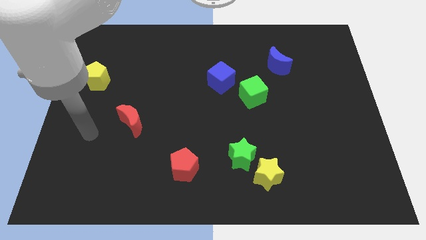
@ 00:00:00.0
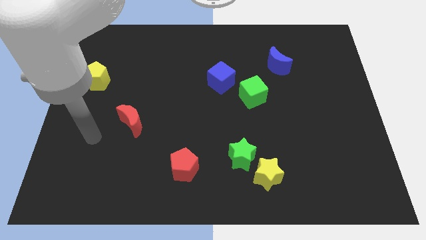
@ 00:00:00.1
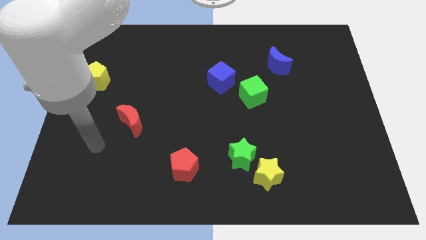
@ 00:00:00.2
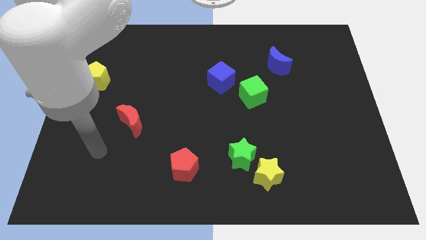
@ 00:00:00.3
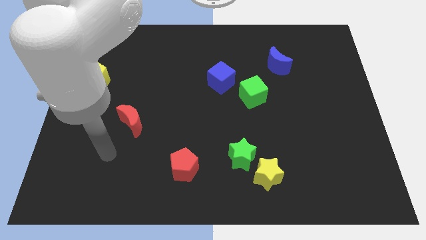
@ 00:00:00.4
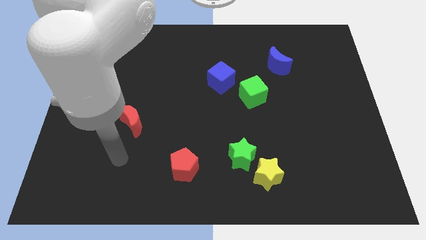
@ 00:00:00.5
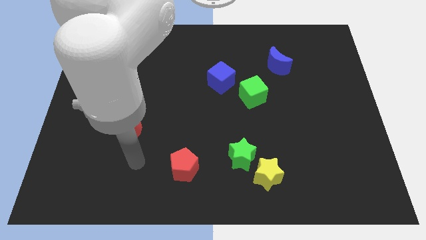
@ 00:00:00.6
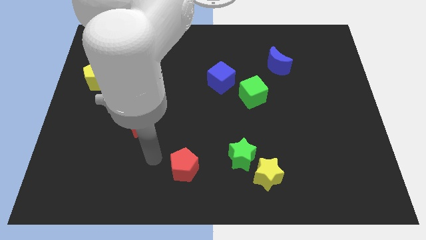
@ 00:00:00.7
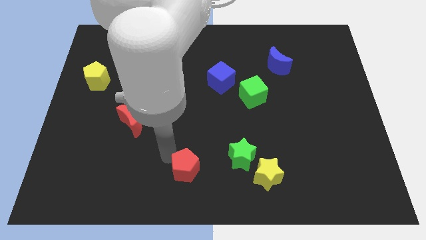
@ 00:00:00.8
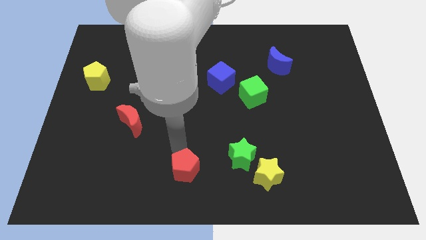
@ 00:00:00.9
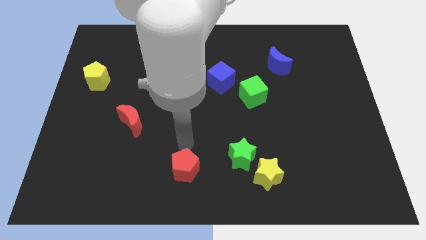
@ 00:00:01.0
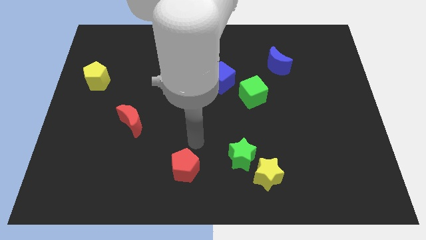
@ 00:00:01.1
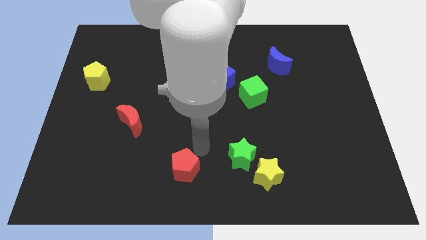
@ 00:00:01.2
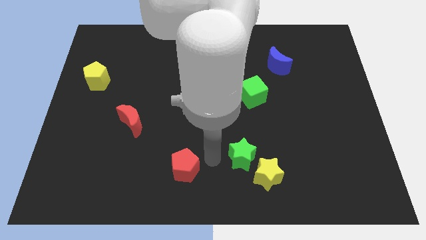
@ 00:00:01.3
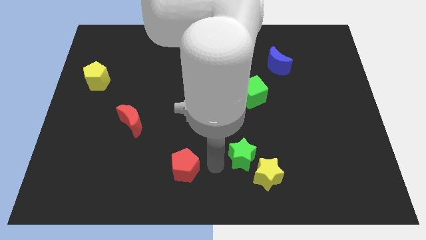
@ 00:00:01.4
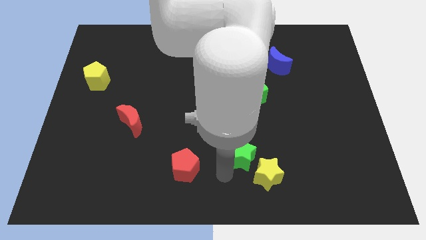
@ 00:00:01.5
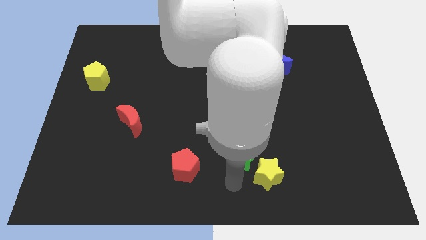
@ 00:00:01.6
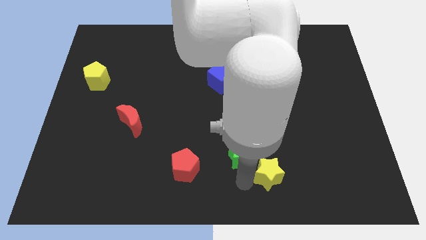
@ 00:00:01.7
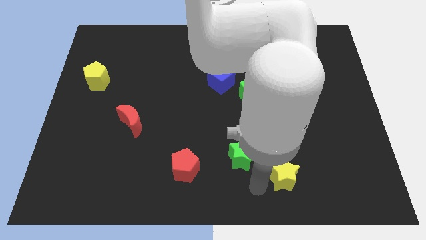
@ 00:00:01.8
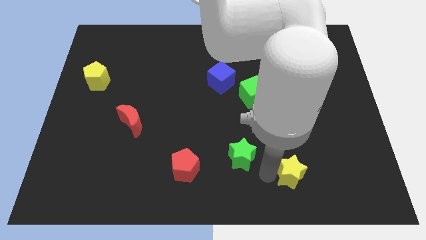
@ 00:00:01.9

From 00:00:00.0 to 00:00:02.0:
separate the green star from the yellow star

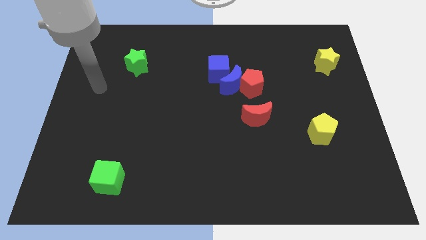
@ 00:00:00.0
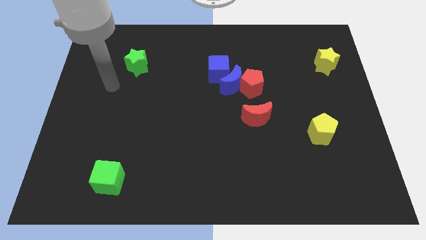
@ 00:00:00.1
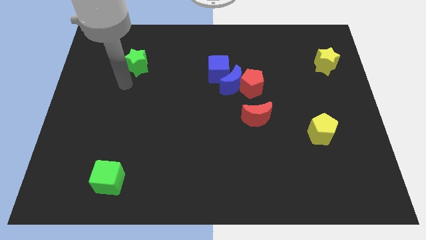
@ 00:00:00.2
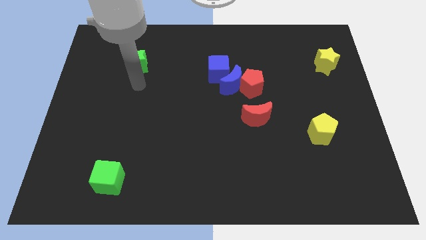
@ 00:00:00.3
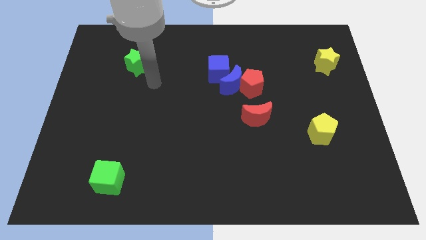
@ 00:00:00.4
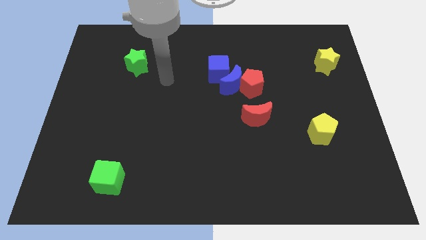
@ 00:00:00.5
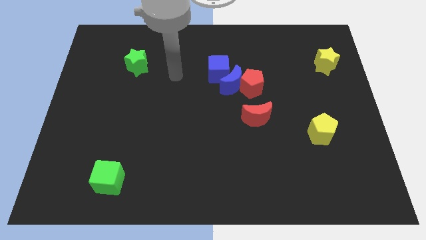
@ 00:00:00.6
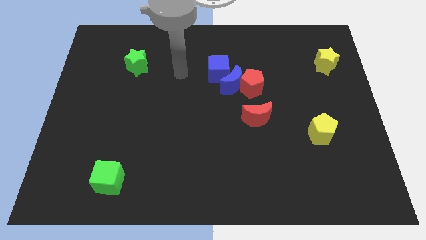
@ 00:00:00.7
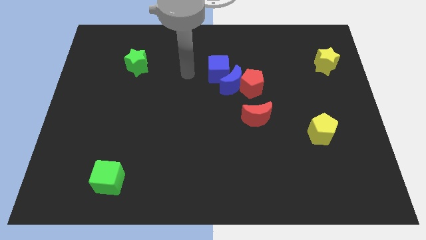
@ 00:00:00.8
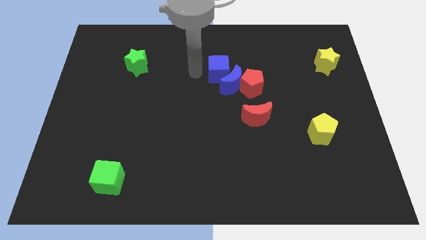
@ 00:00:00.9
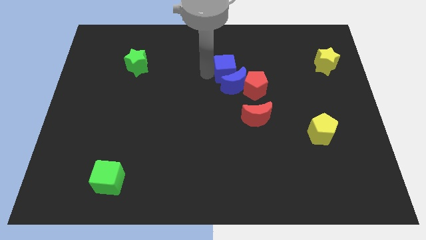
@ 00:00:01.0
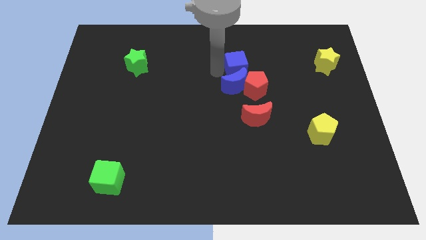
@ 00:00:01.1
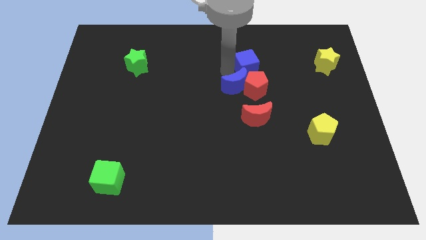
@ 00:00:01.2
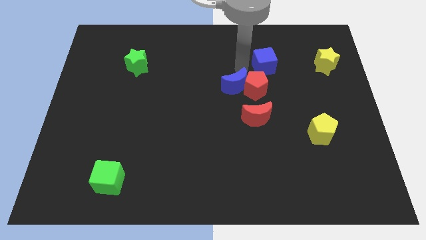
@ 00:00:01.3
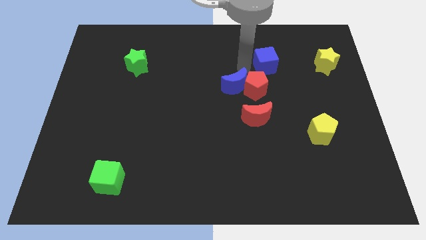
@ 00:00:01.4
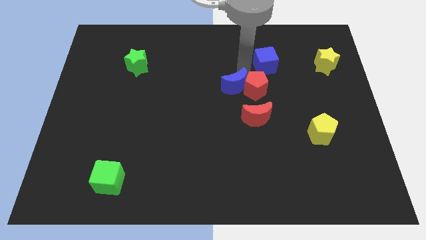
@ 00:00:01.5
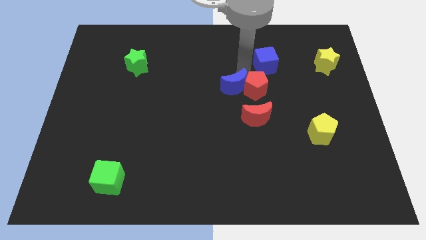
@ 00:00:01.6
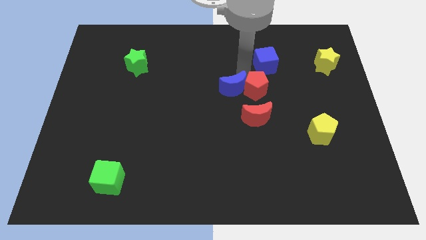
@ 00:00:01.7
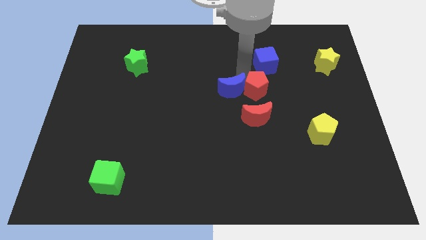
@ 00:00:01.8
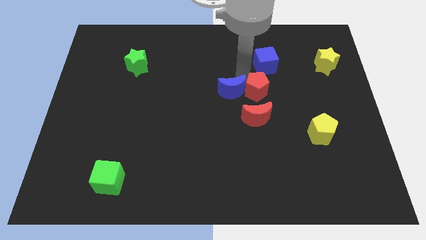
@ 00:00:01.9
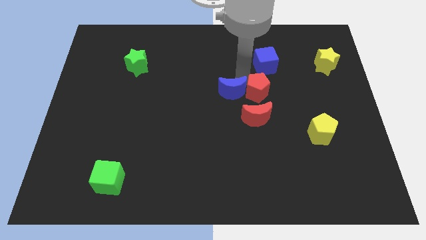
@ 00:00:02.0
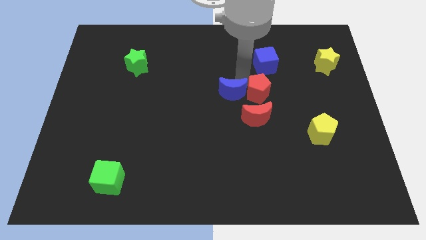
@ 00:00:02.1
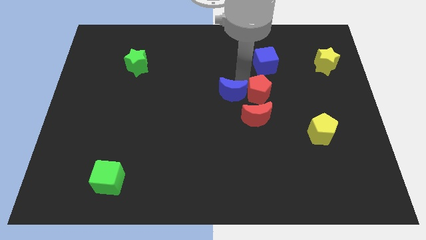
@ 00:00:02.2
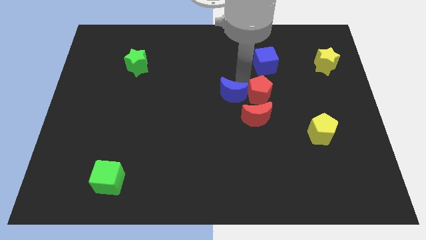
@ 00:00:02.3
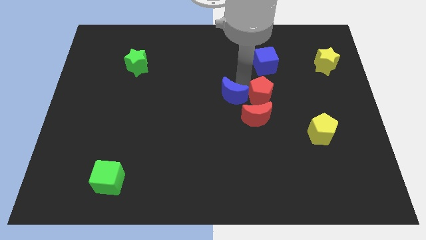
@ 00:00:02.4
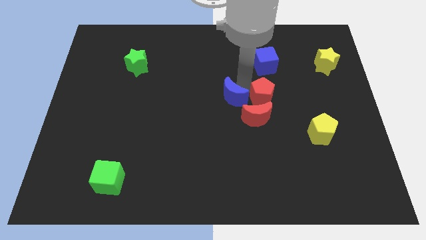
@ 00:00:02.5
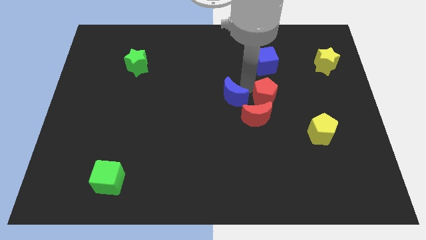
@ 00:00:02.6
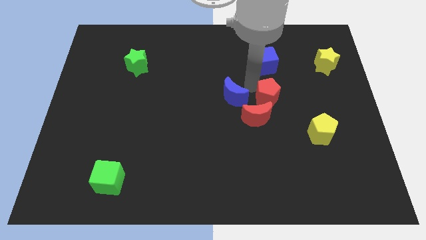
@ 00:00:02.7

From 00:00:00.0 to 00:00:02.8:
pull the blue moon apart from the red pentagon and blue cube

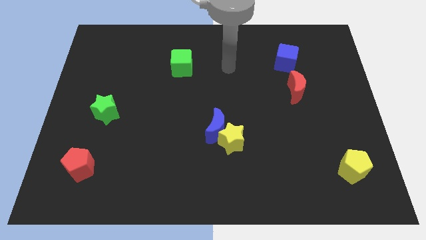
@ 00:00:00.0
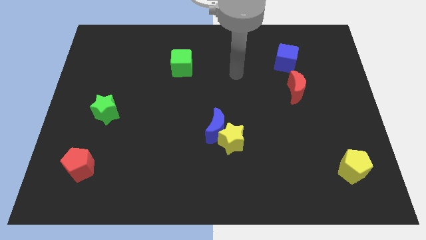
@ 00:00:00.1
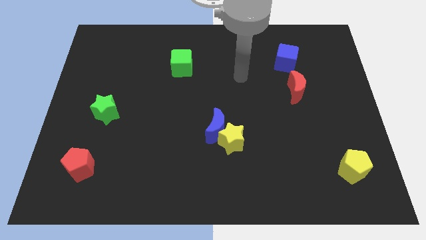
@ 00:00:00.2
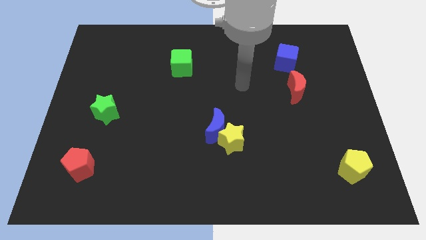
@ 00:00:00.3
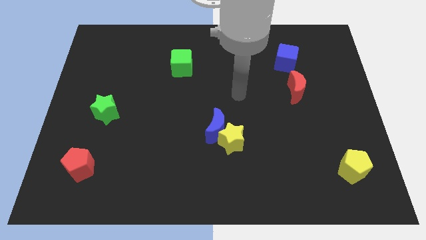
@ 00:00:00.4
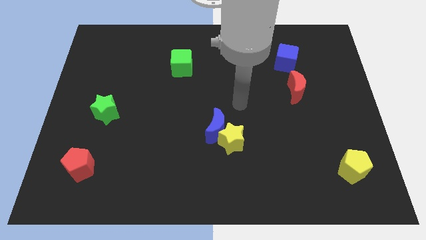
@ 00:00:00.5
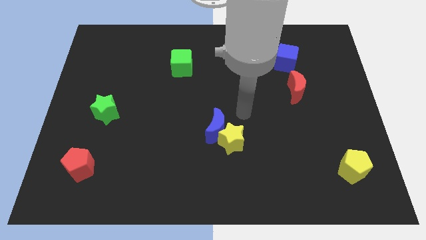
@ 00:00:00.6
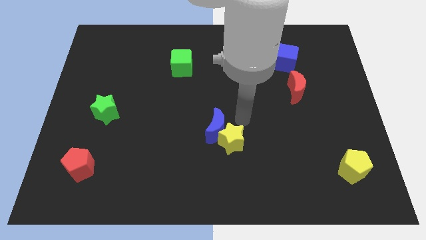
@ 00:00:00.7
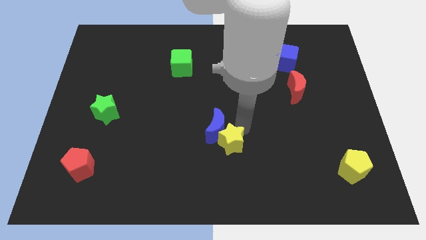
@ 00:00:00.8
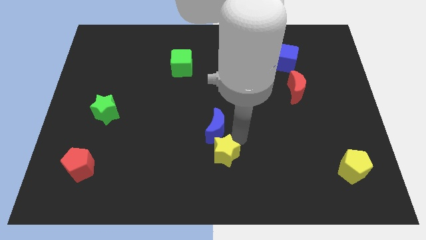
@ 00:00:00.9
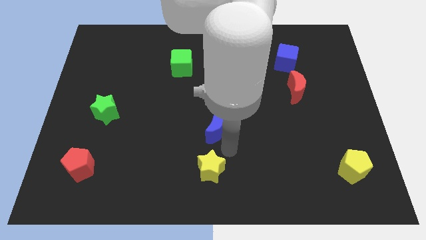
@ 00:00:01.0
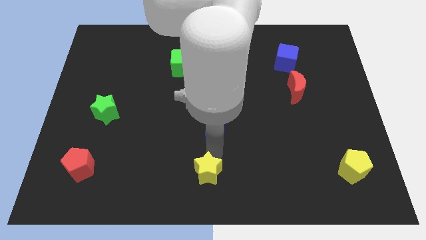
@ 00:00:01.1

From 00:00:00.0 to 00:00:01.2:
pull the blue moon apart from the yellow star

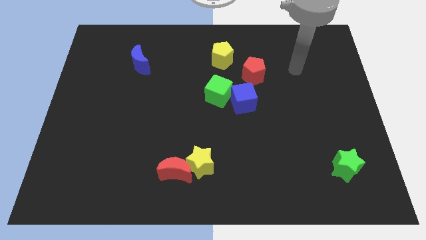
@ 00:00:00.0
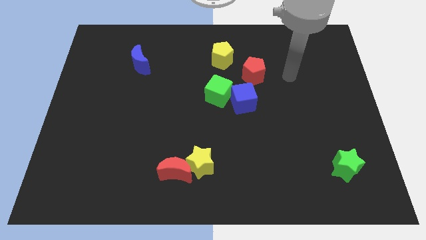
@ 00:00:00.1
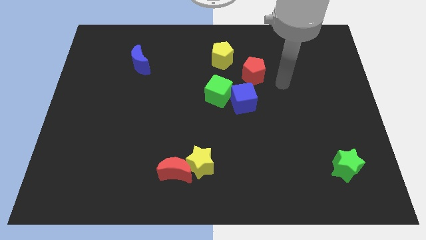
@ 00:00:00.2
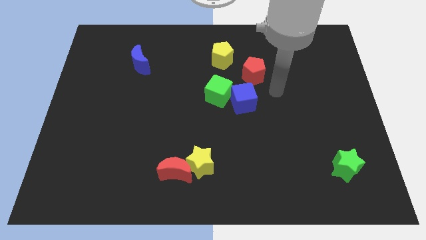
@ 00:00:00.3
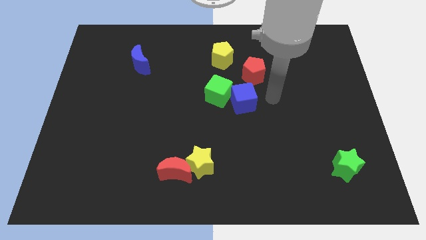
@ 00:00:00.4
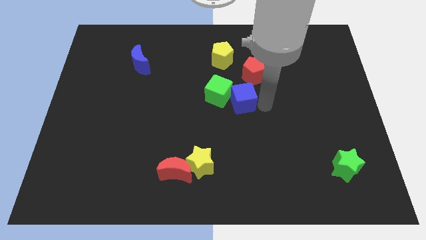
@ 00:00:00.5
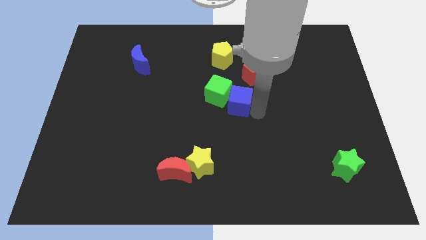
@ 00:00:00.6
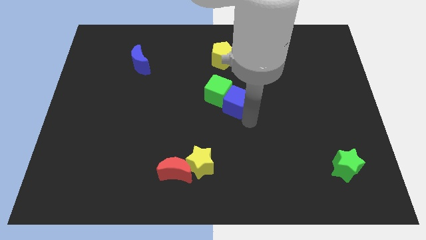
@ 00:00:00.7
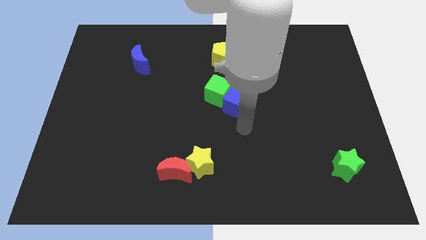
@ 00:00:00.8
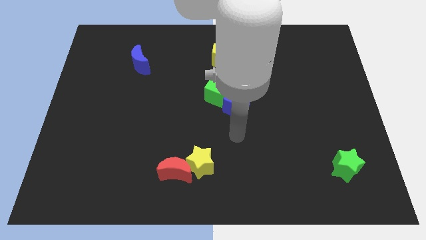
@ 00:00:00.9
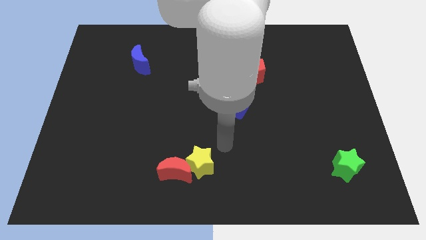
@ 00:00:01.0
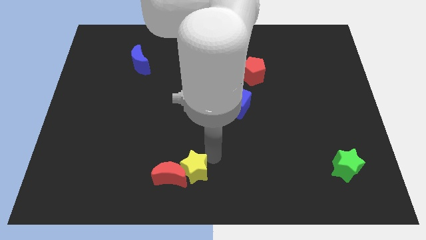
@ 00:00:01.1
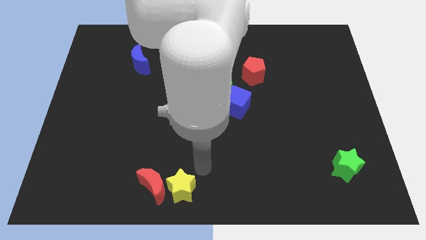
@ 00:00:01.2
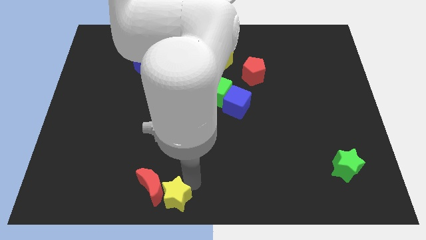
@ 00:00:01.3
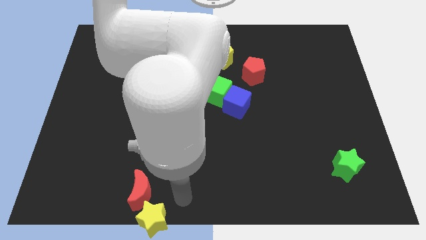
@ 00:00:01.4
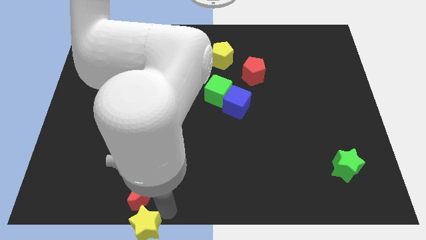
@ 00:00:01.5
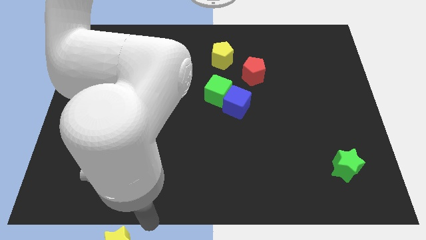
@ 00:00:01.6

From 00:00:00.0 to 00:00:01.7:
separate the red moon from the yellow star

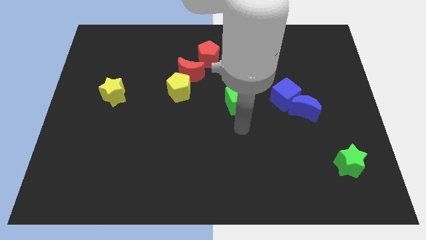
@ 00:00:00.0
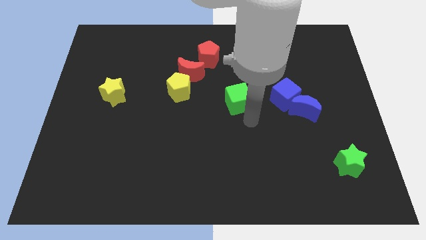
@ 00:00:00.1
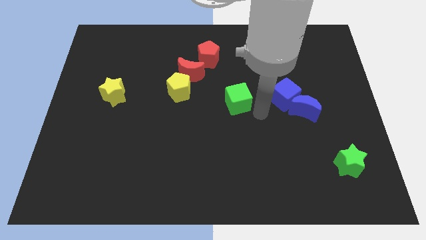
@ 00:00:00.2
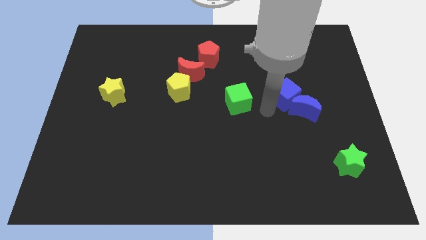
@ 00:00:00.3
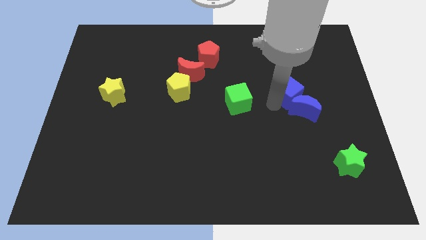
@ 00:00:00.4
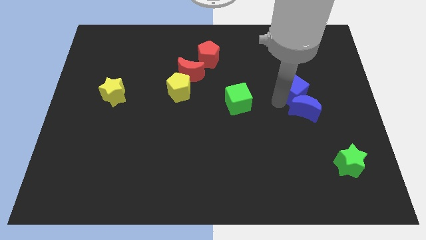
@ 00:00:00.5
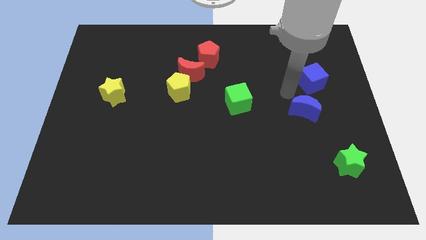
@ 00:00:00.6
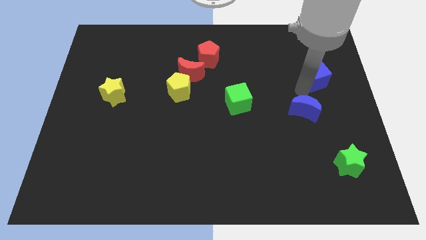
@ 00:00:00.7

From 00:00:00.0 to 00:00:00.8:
move the blue moon away from the blue cube

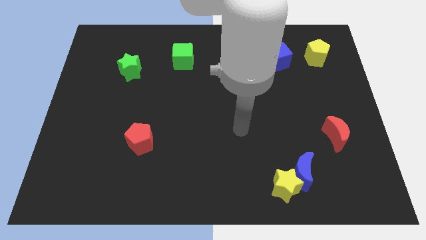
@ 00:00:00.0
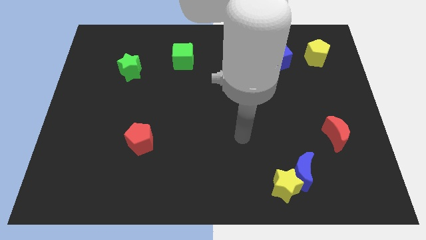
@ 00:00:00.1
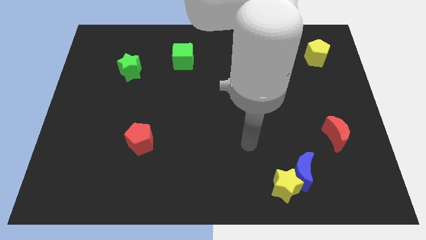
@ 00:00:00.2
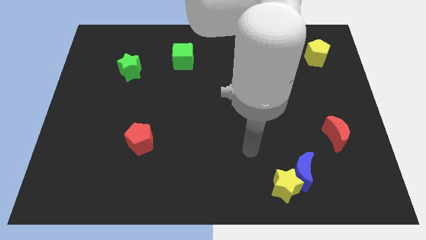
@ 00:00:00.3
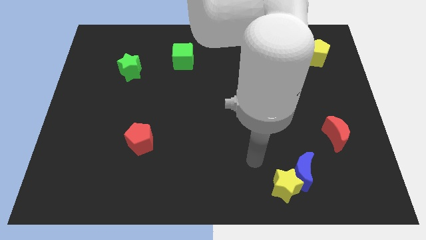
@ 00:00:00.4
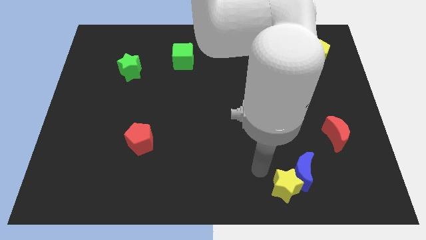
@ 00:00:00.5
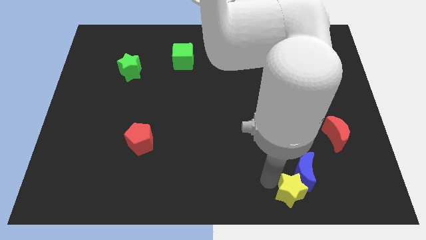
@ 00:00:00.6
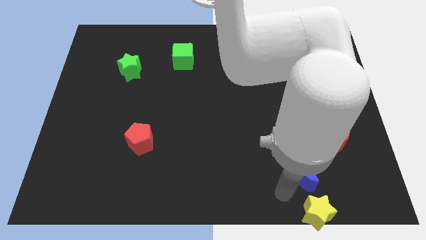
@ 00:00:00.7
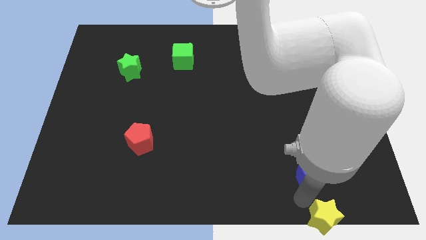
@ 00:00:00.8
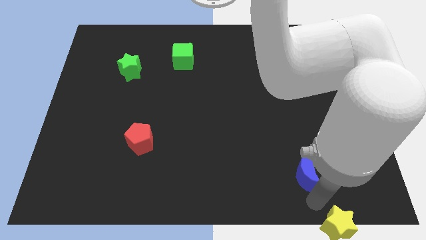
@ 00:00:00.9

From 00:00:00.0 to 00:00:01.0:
separate the blue moon from the yellow star
